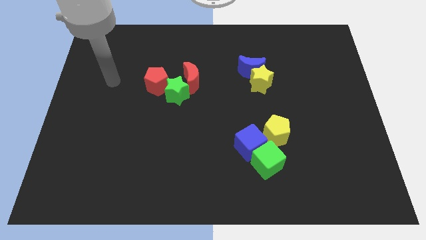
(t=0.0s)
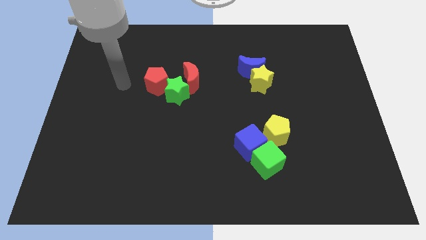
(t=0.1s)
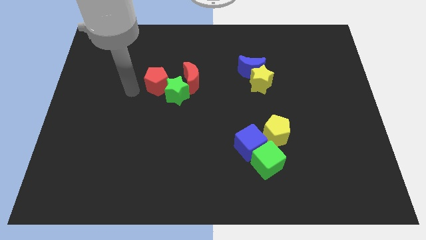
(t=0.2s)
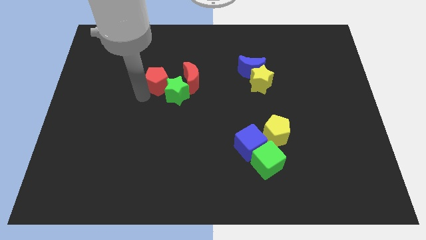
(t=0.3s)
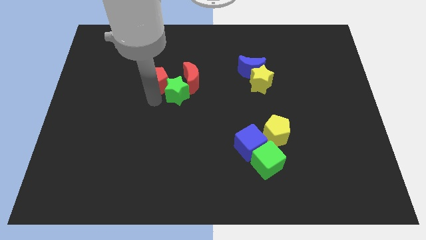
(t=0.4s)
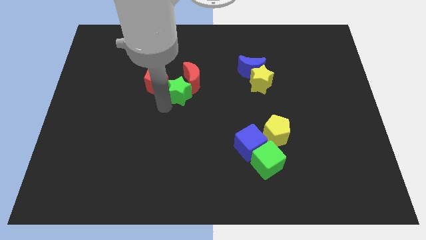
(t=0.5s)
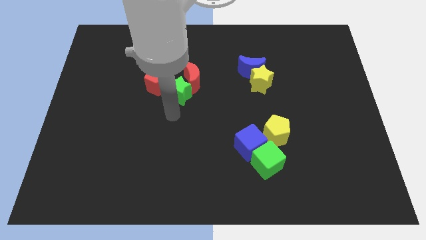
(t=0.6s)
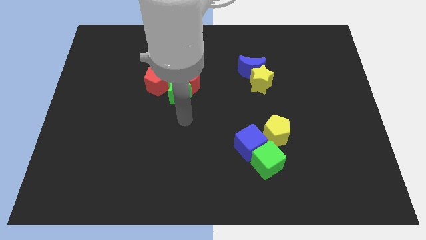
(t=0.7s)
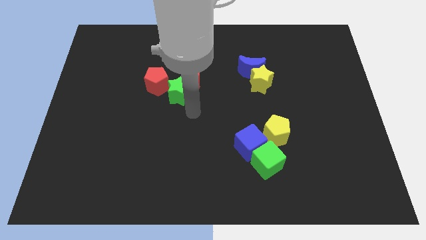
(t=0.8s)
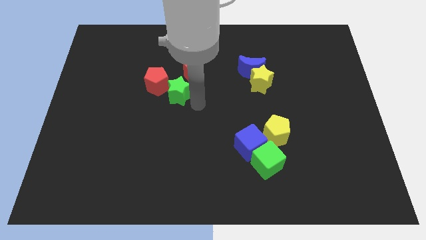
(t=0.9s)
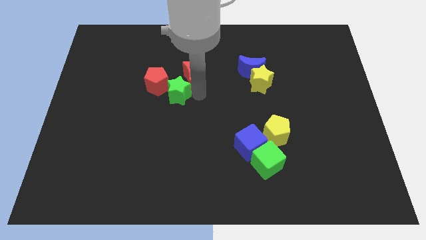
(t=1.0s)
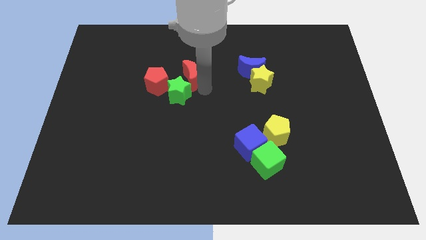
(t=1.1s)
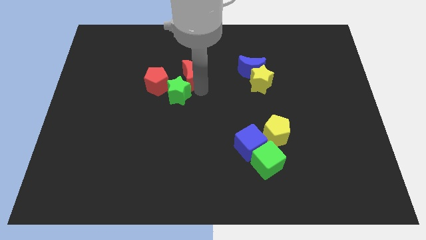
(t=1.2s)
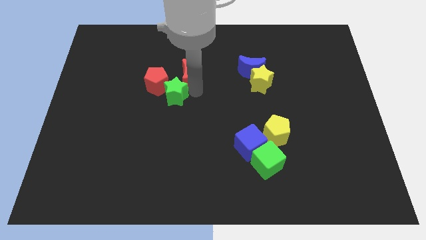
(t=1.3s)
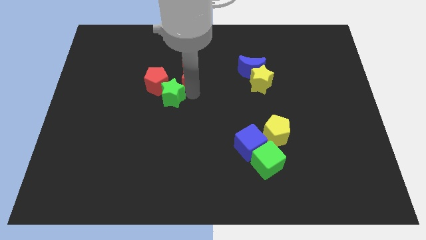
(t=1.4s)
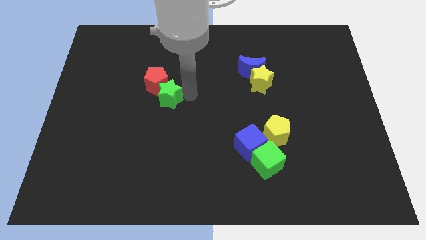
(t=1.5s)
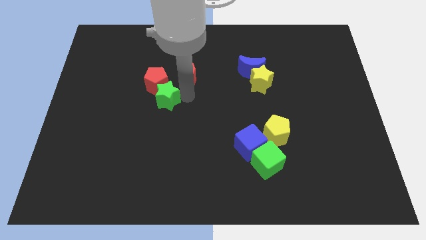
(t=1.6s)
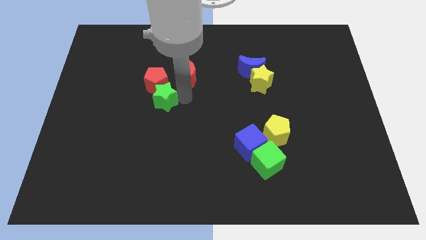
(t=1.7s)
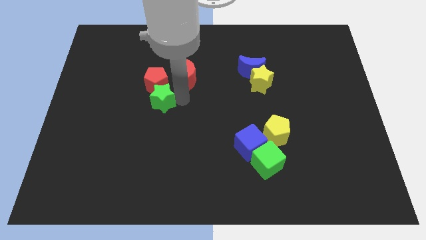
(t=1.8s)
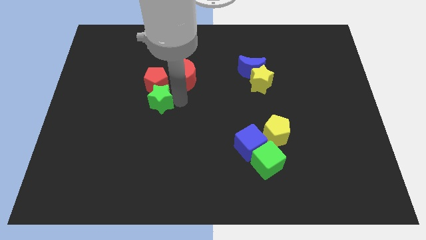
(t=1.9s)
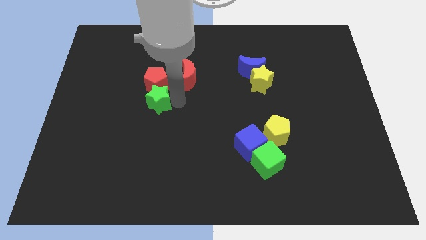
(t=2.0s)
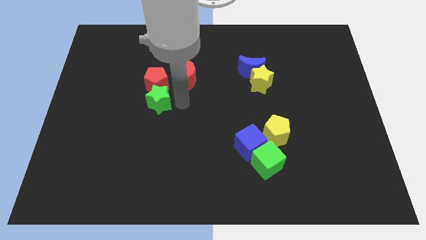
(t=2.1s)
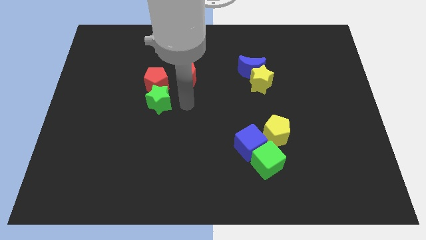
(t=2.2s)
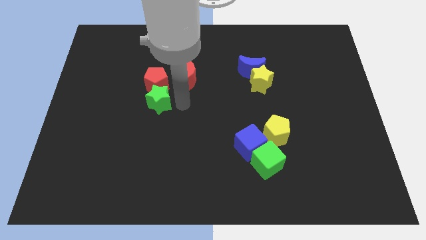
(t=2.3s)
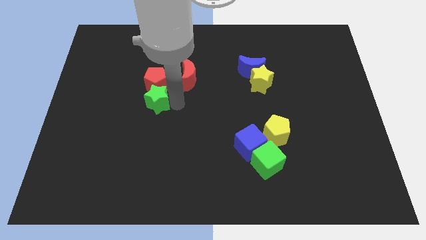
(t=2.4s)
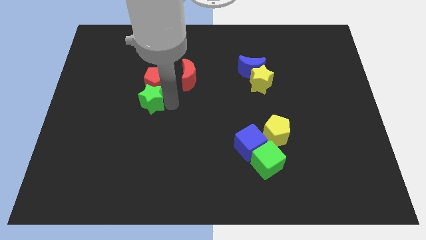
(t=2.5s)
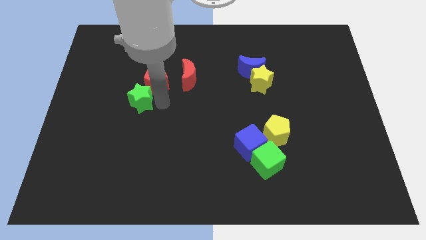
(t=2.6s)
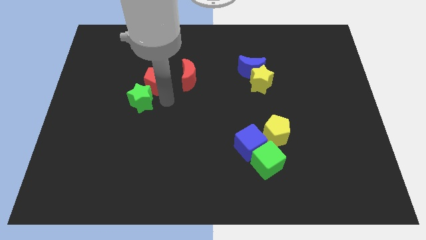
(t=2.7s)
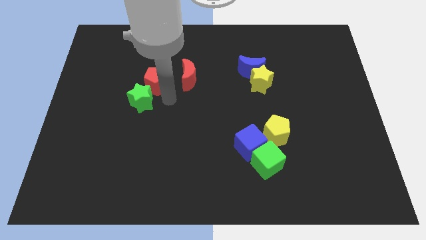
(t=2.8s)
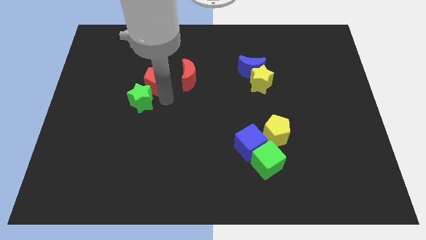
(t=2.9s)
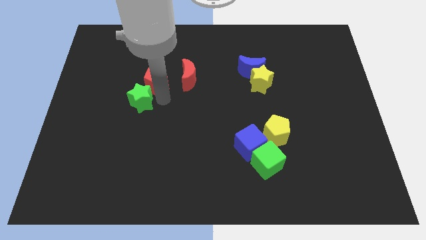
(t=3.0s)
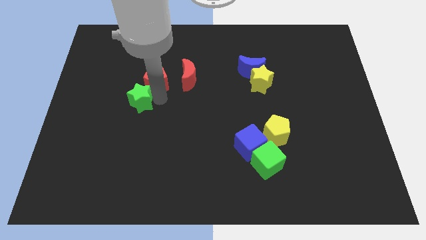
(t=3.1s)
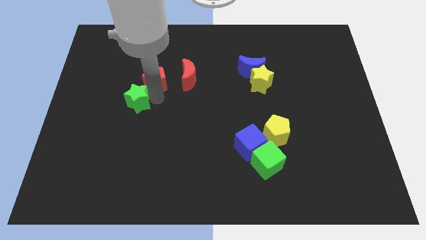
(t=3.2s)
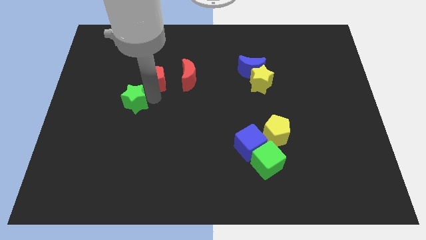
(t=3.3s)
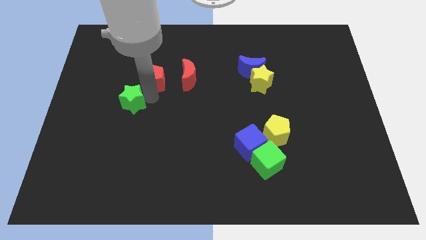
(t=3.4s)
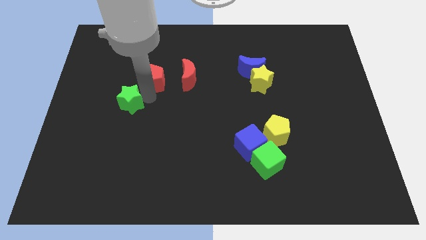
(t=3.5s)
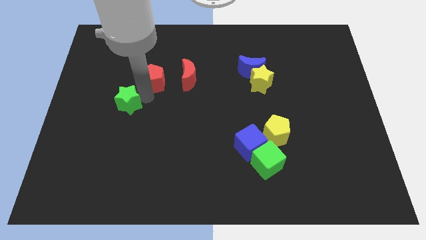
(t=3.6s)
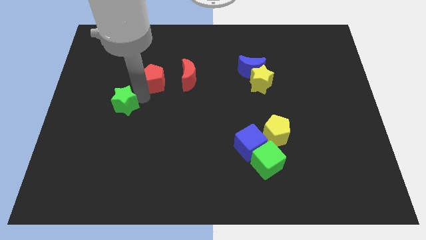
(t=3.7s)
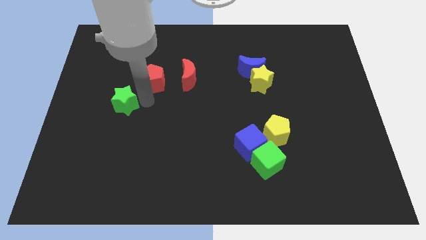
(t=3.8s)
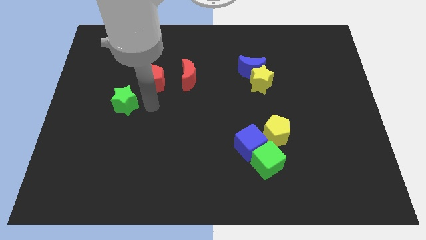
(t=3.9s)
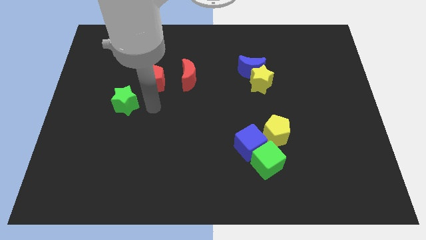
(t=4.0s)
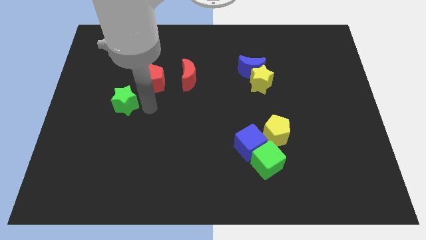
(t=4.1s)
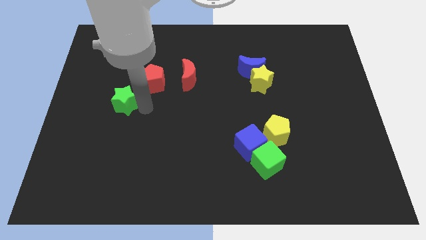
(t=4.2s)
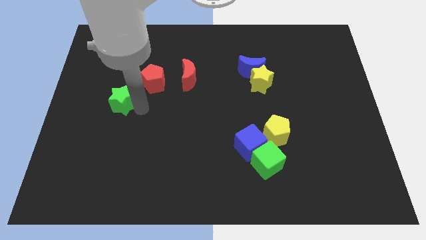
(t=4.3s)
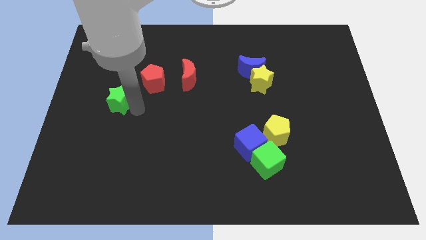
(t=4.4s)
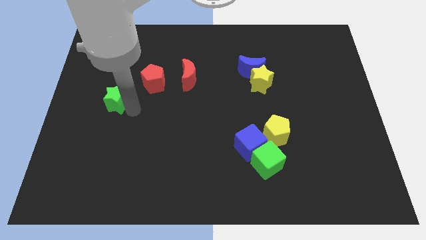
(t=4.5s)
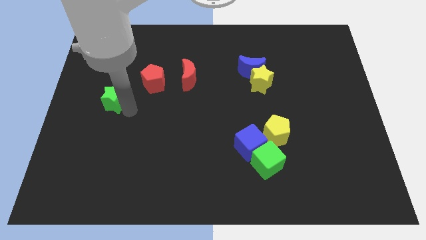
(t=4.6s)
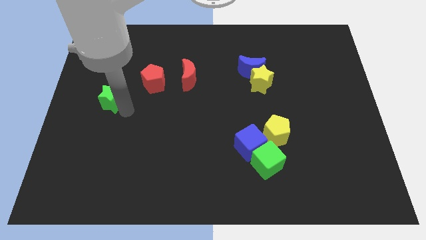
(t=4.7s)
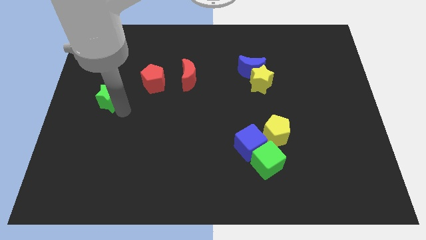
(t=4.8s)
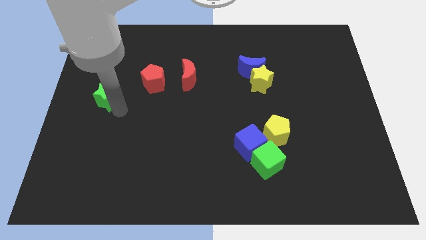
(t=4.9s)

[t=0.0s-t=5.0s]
push the green star to the center left

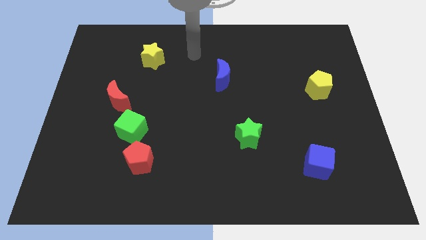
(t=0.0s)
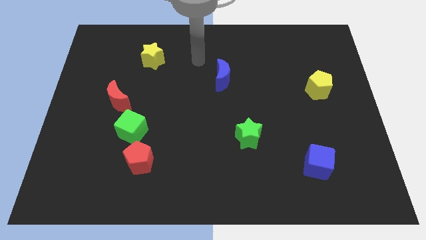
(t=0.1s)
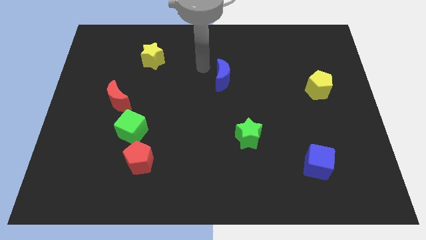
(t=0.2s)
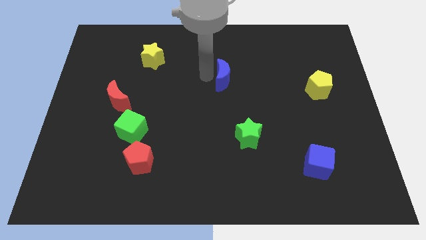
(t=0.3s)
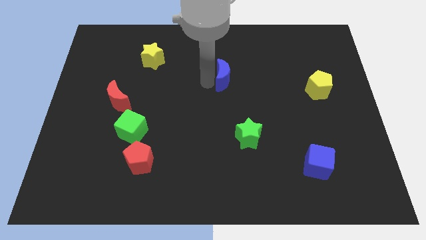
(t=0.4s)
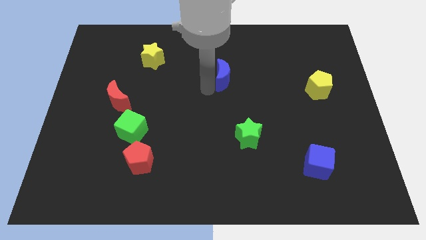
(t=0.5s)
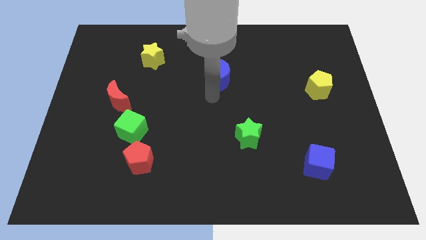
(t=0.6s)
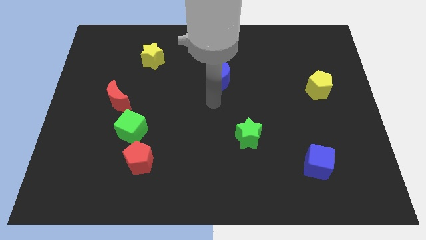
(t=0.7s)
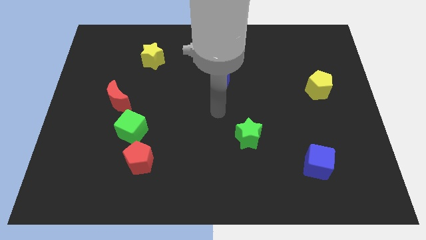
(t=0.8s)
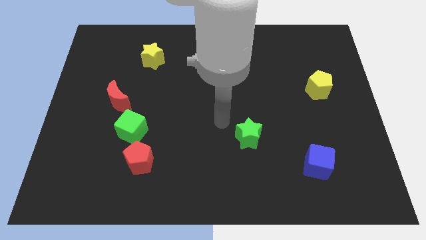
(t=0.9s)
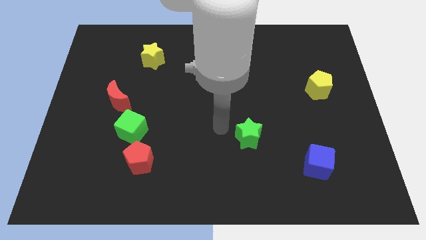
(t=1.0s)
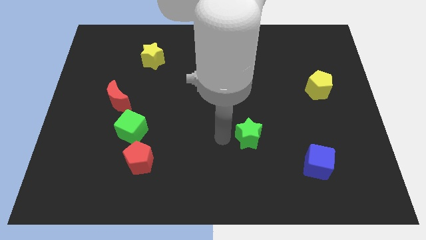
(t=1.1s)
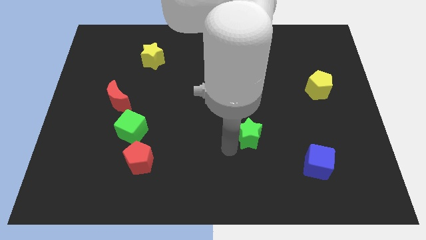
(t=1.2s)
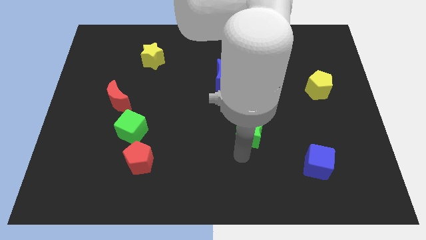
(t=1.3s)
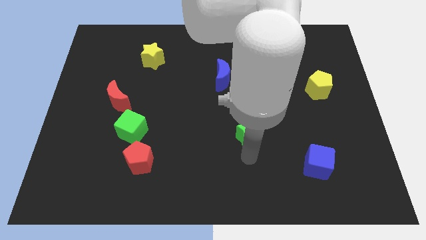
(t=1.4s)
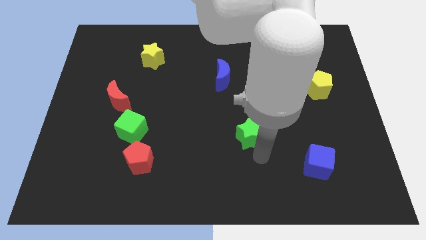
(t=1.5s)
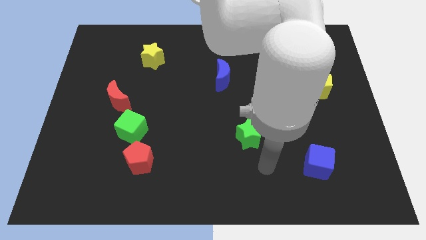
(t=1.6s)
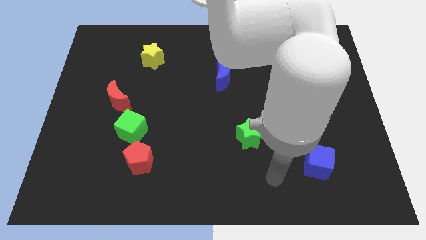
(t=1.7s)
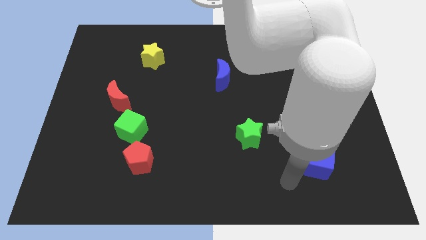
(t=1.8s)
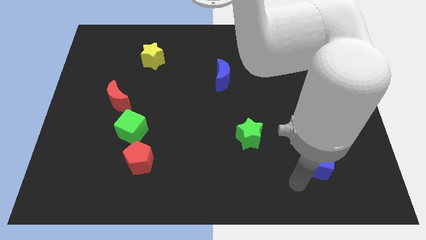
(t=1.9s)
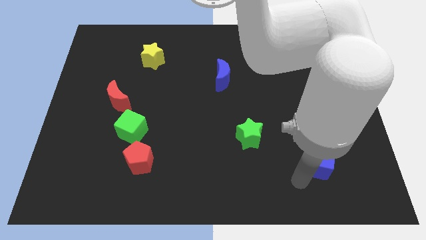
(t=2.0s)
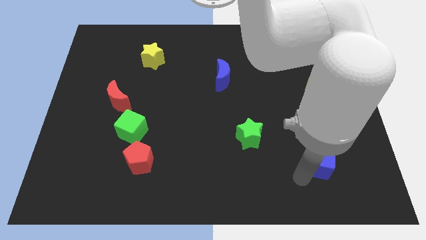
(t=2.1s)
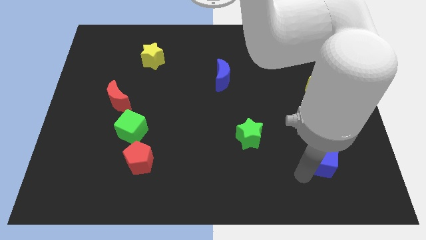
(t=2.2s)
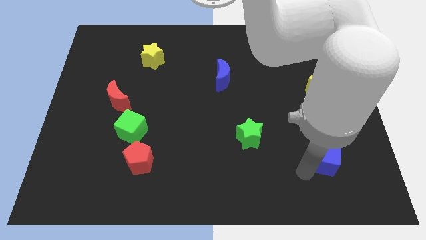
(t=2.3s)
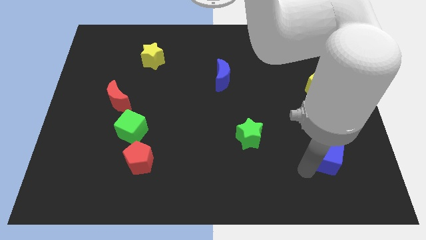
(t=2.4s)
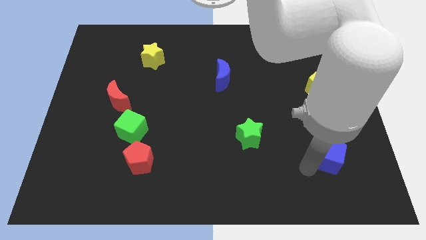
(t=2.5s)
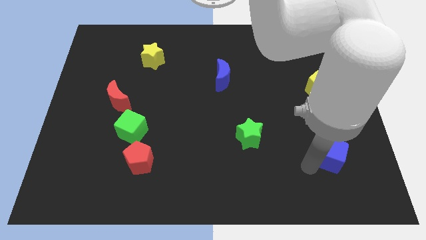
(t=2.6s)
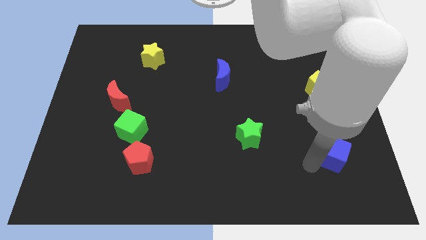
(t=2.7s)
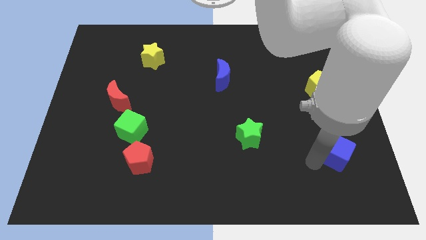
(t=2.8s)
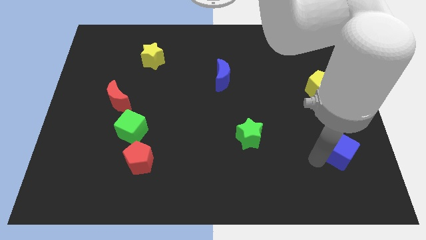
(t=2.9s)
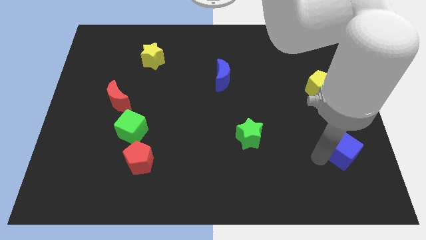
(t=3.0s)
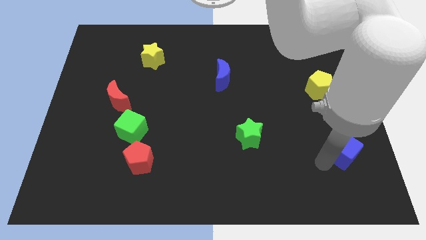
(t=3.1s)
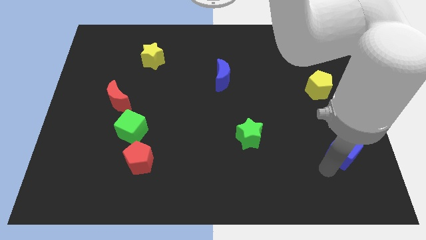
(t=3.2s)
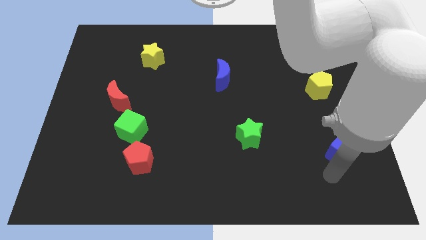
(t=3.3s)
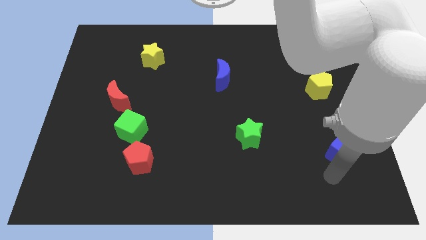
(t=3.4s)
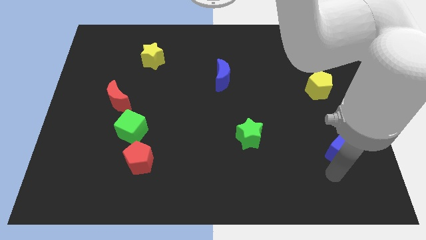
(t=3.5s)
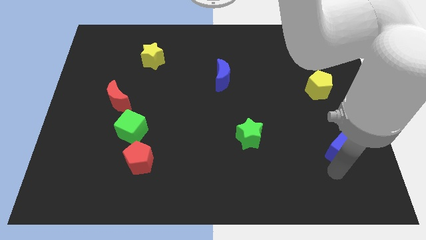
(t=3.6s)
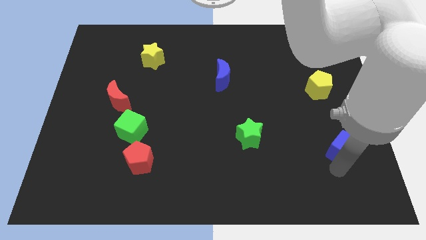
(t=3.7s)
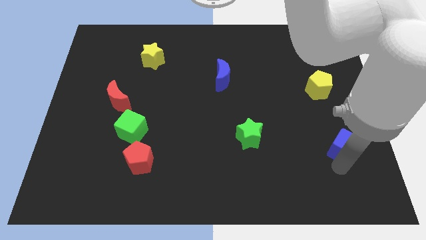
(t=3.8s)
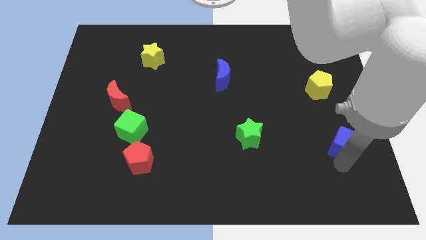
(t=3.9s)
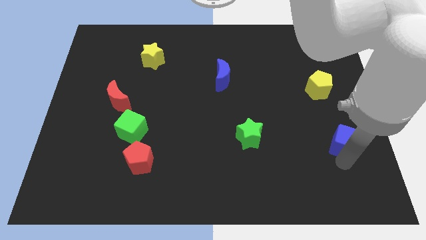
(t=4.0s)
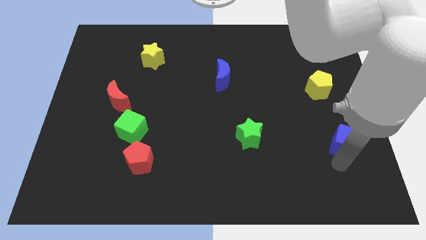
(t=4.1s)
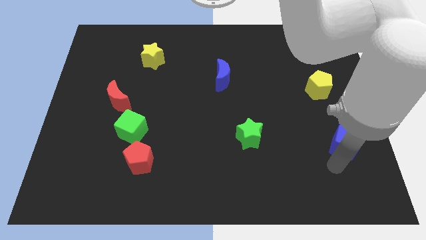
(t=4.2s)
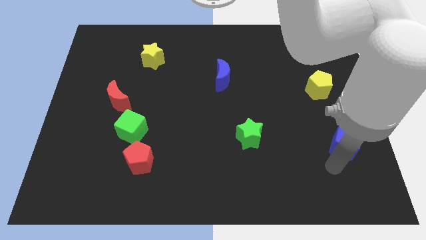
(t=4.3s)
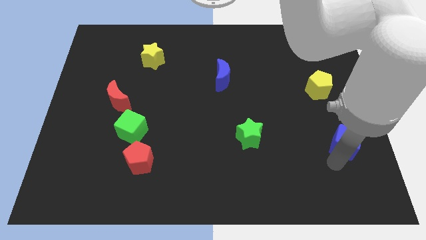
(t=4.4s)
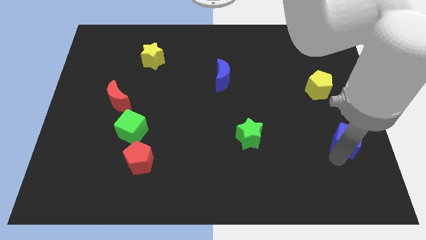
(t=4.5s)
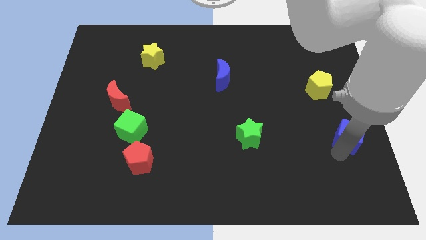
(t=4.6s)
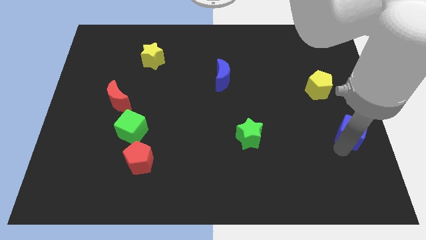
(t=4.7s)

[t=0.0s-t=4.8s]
push the blue cube to the right side
